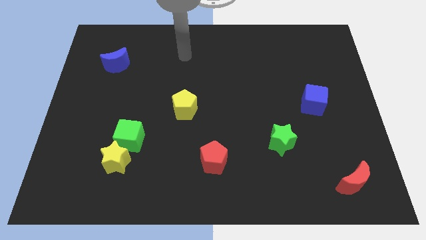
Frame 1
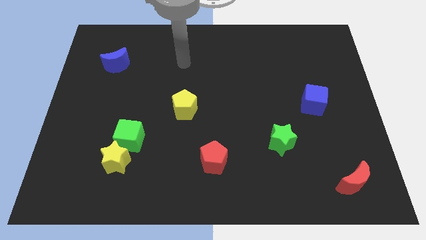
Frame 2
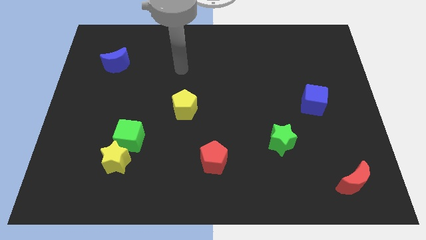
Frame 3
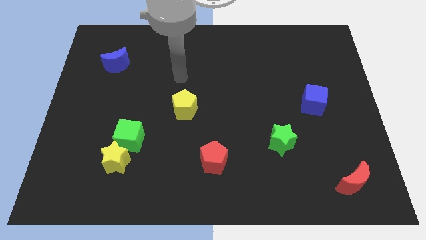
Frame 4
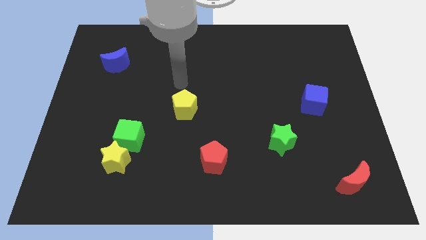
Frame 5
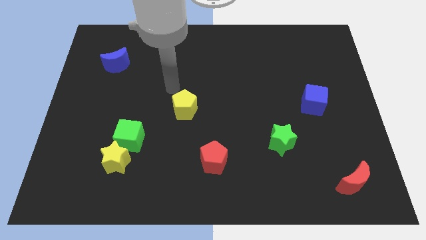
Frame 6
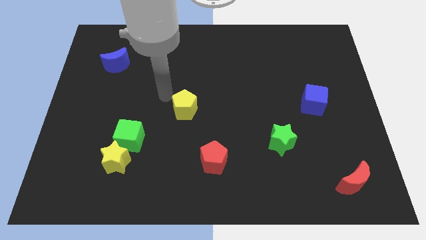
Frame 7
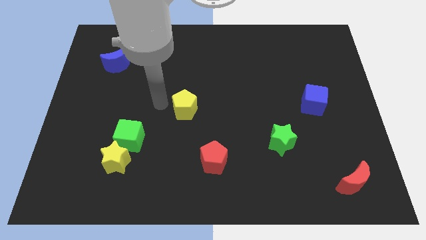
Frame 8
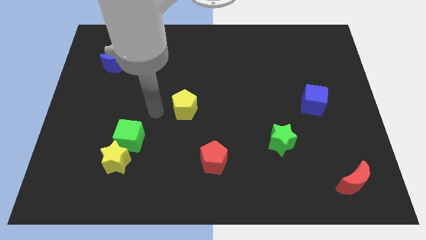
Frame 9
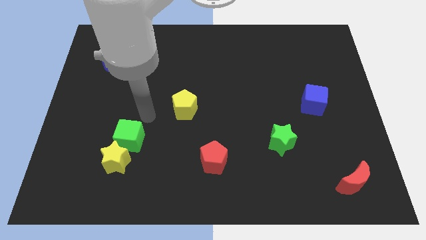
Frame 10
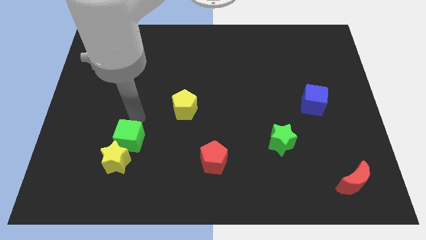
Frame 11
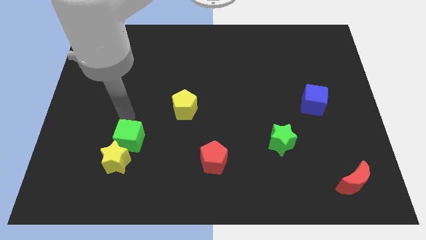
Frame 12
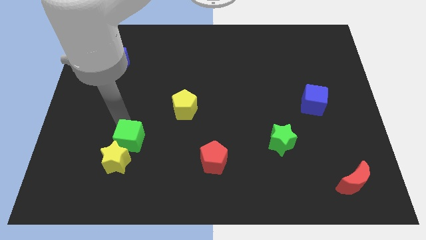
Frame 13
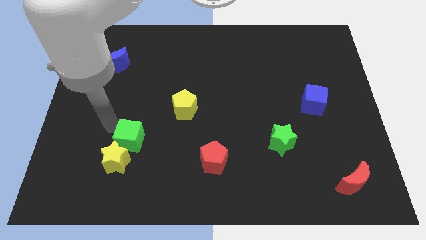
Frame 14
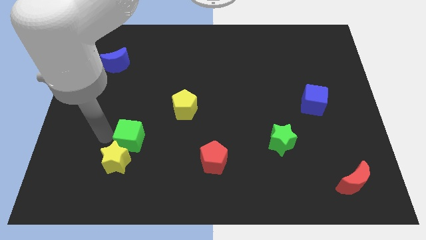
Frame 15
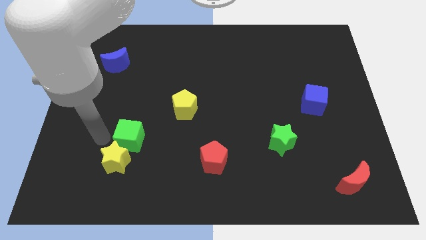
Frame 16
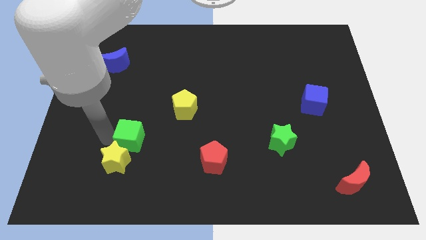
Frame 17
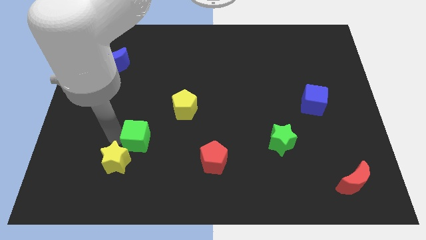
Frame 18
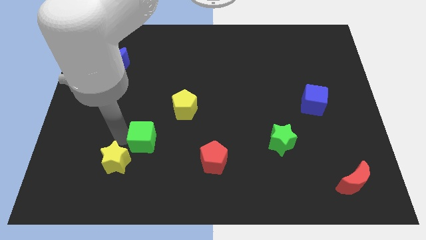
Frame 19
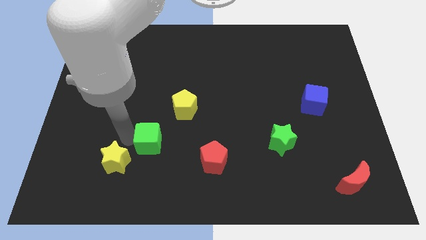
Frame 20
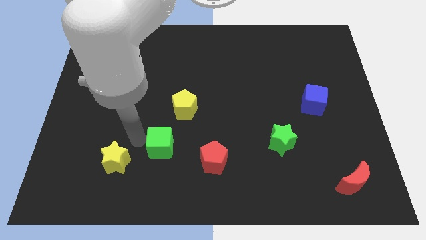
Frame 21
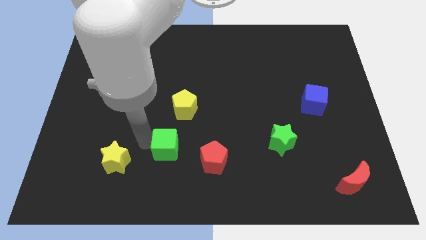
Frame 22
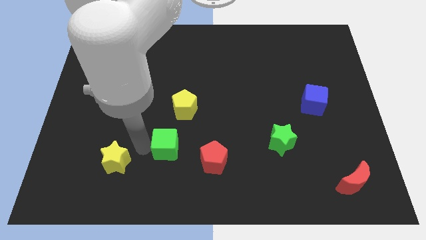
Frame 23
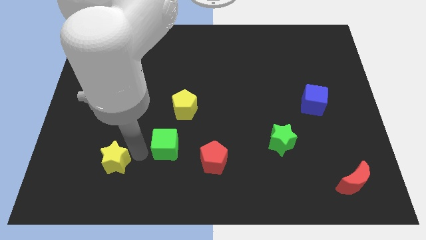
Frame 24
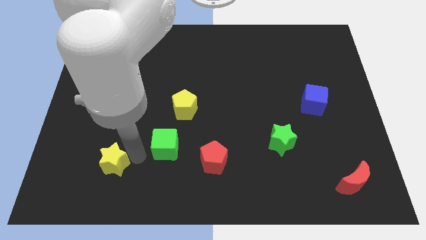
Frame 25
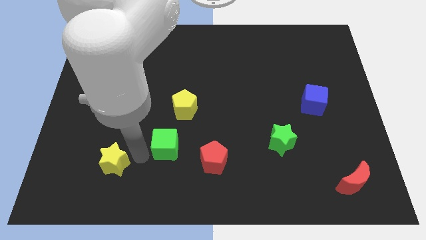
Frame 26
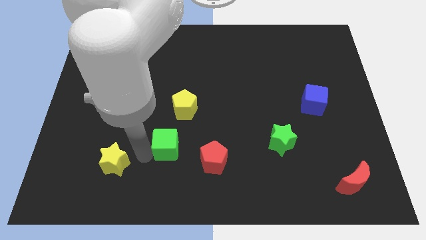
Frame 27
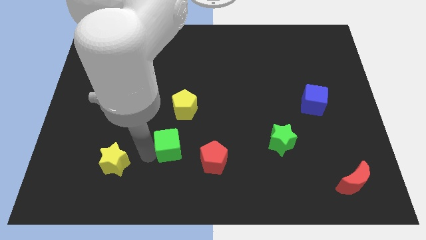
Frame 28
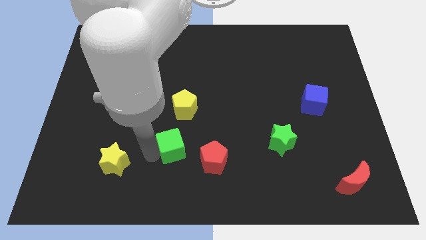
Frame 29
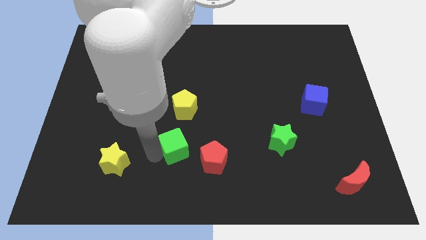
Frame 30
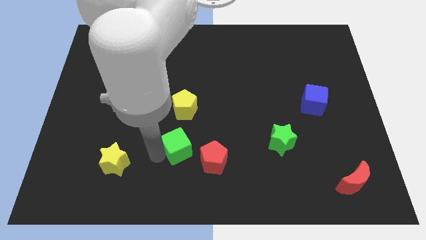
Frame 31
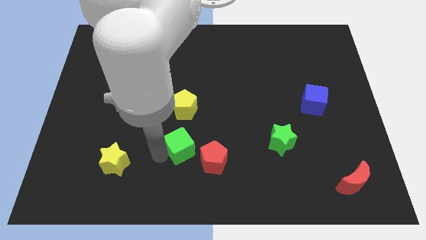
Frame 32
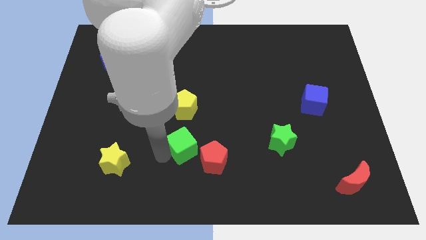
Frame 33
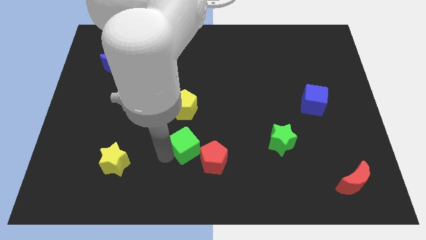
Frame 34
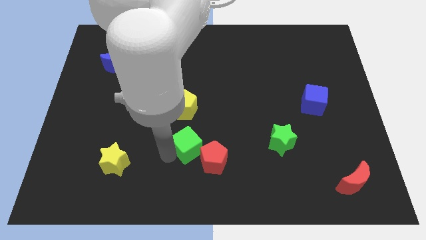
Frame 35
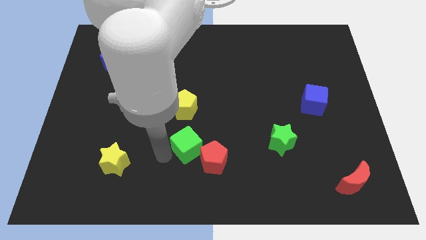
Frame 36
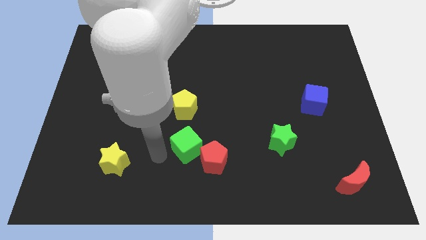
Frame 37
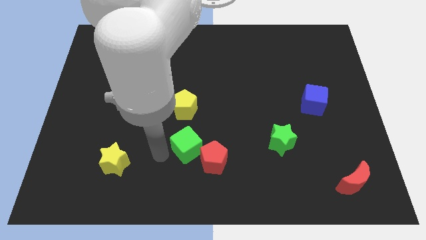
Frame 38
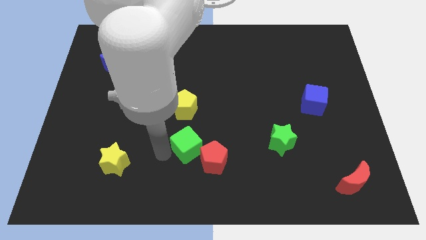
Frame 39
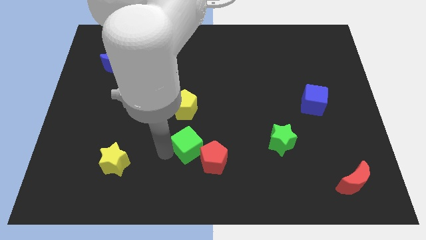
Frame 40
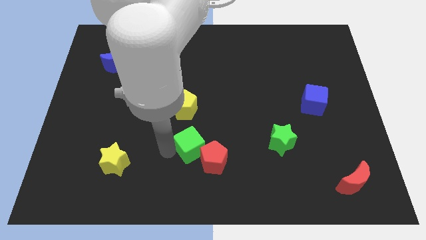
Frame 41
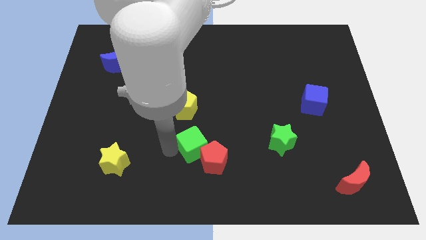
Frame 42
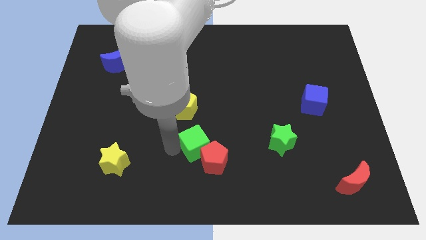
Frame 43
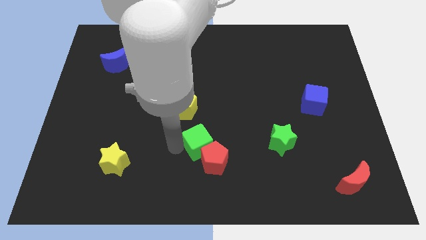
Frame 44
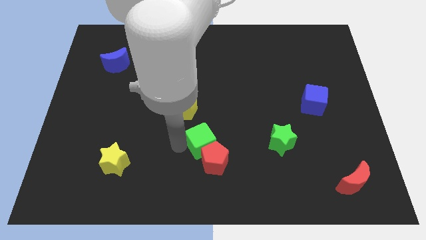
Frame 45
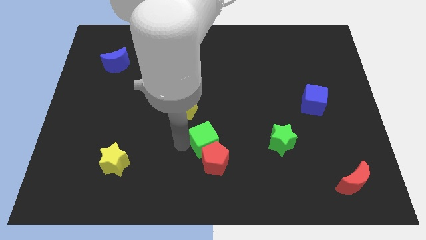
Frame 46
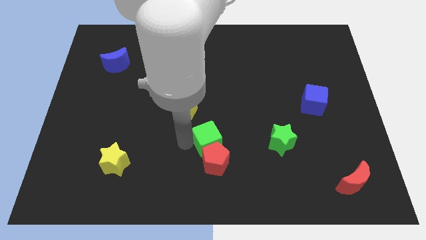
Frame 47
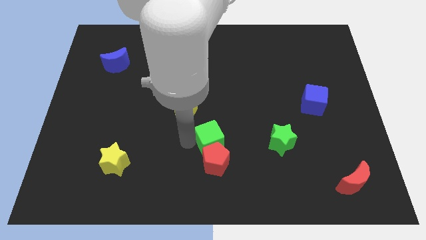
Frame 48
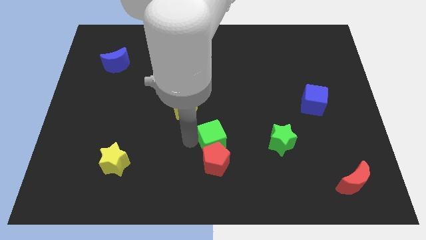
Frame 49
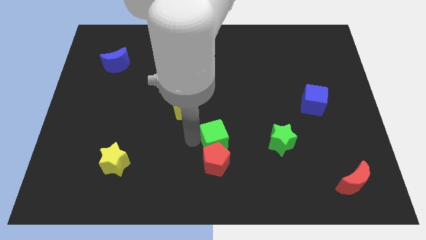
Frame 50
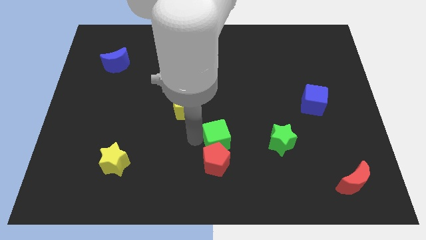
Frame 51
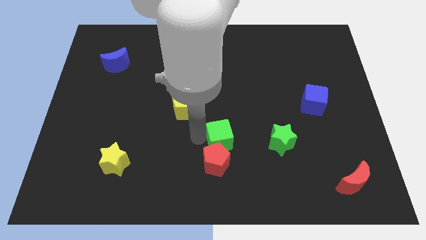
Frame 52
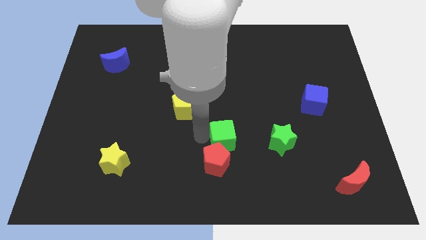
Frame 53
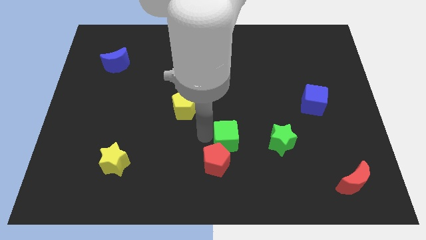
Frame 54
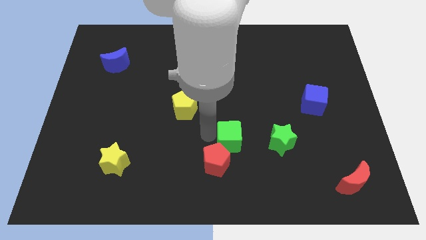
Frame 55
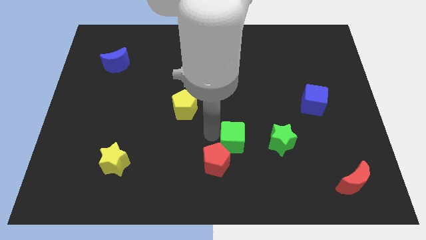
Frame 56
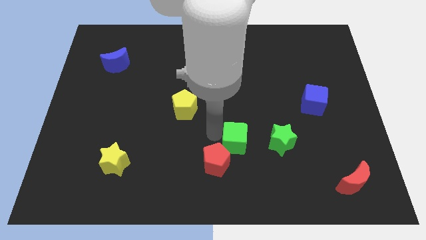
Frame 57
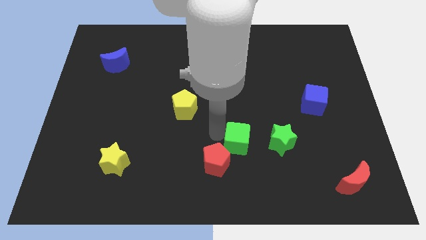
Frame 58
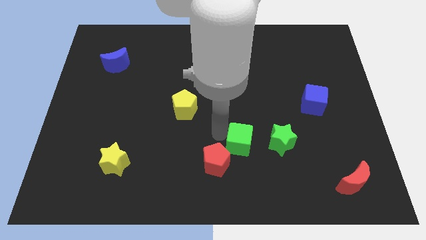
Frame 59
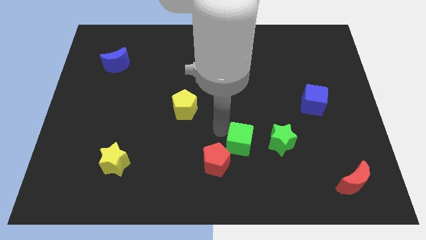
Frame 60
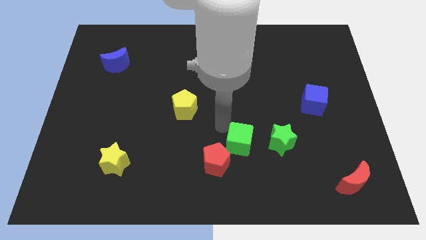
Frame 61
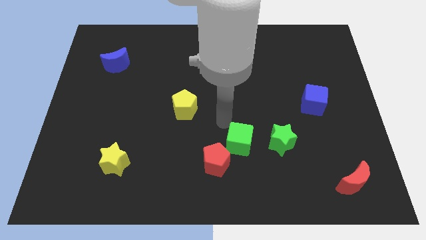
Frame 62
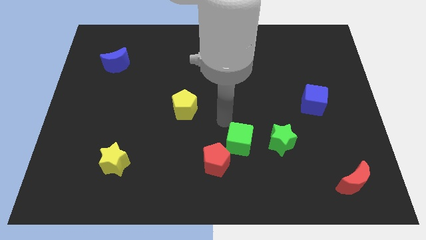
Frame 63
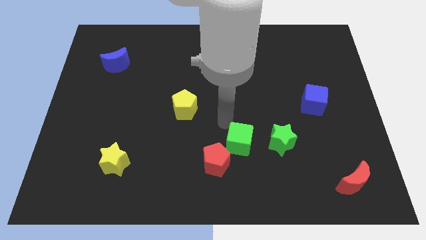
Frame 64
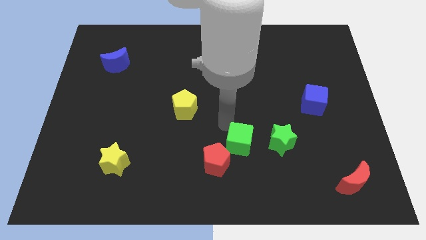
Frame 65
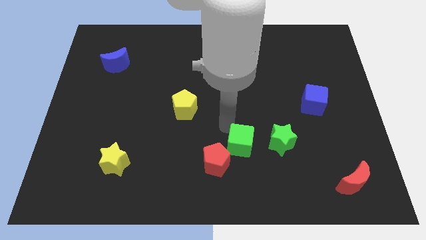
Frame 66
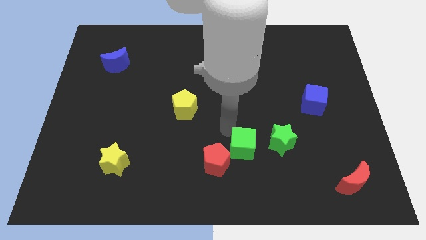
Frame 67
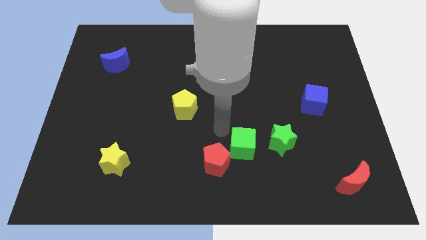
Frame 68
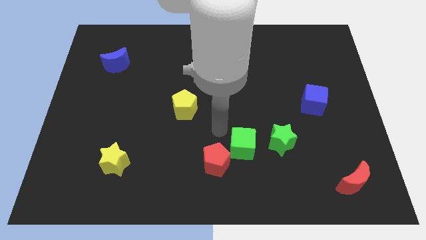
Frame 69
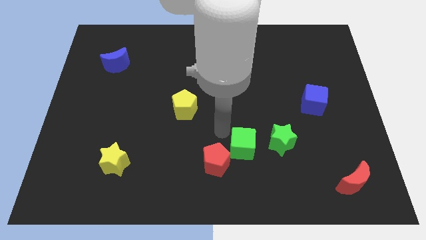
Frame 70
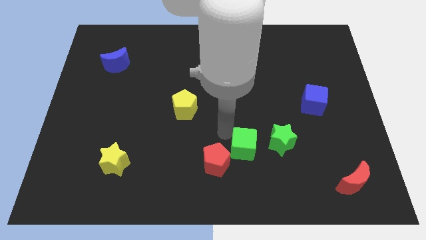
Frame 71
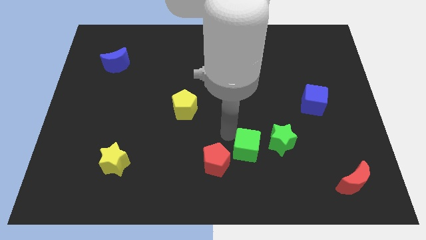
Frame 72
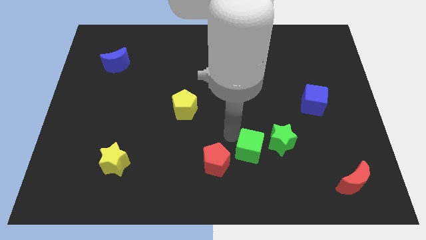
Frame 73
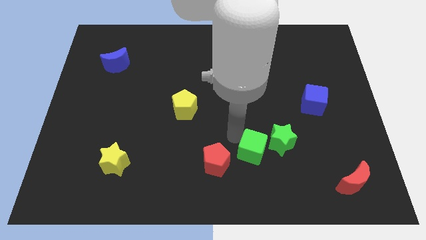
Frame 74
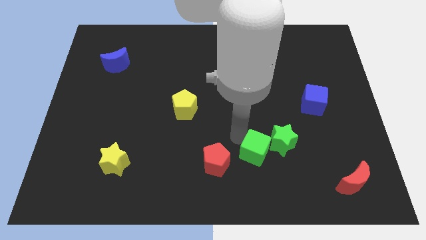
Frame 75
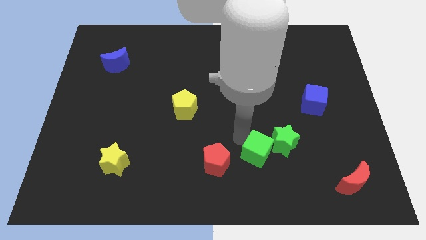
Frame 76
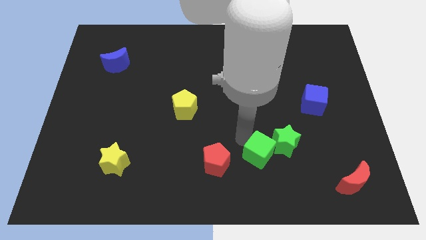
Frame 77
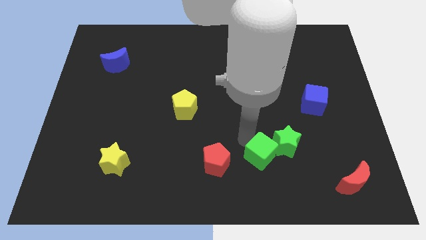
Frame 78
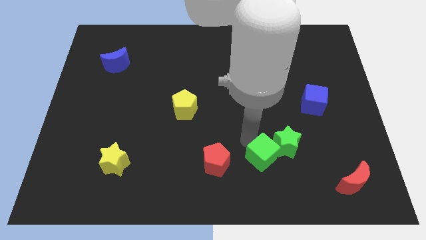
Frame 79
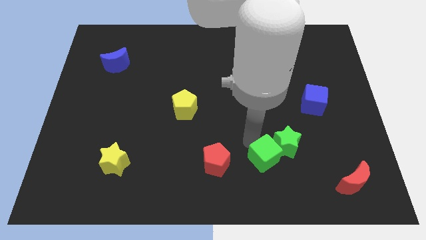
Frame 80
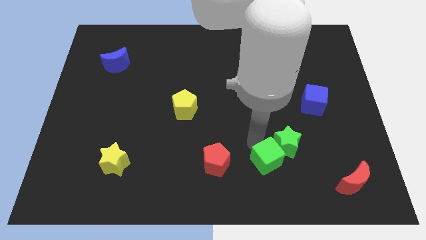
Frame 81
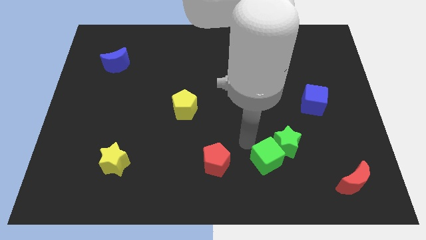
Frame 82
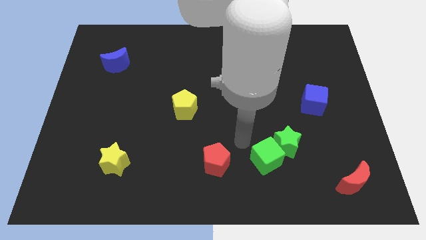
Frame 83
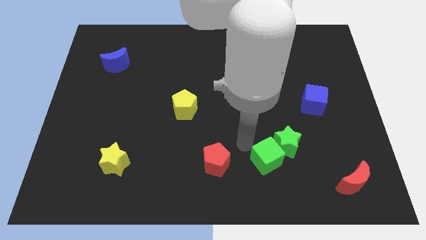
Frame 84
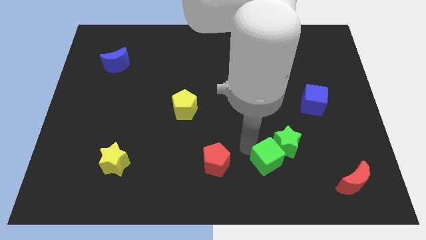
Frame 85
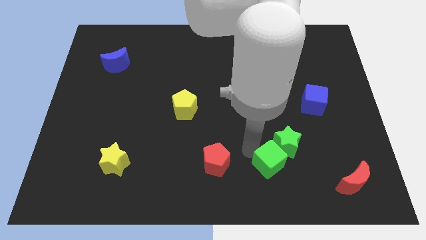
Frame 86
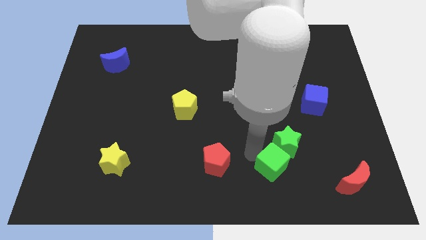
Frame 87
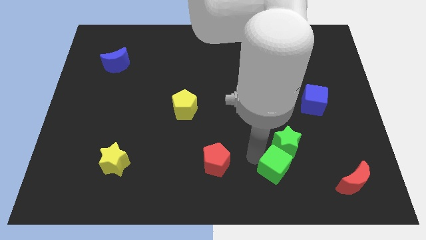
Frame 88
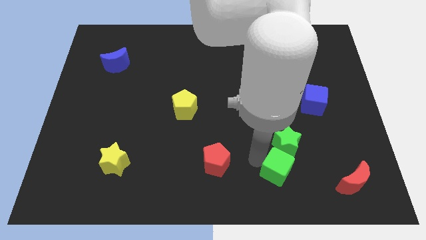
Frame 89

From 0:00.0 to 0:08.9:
put the green cube to the left of the red moon
